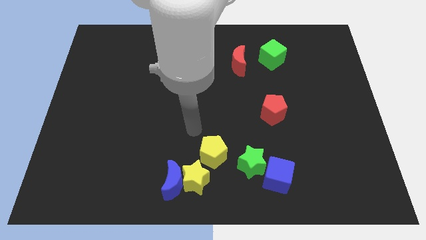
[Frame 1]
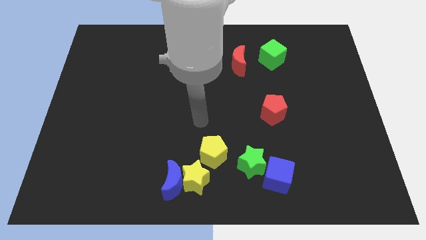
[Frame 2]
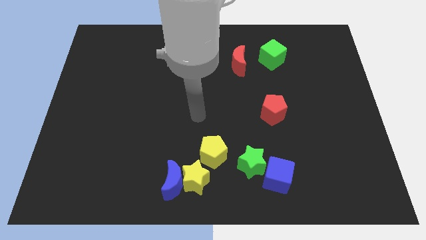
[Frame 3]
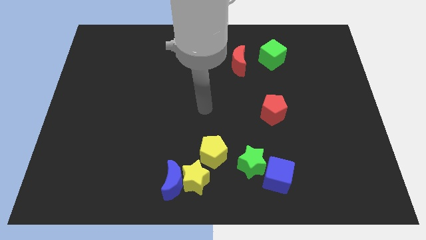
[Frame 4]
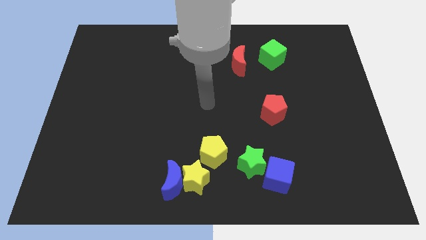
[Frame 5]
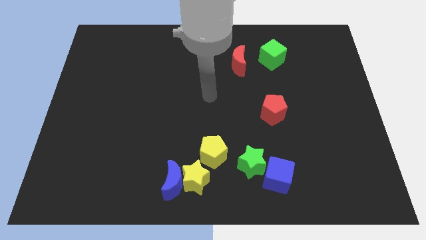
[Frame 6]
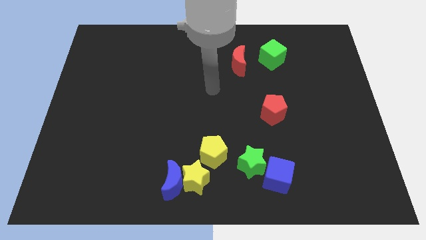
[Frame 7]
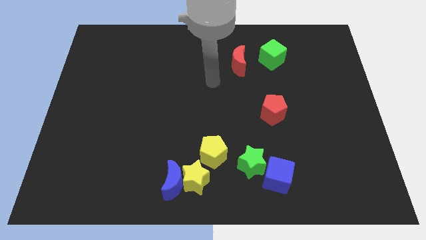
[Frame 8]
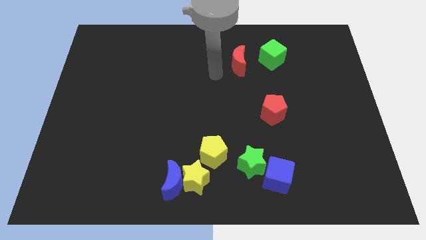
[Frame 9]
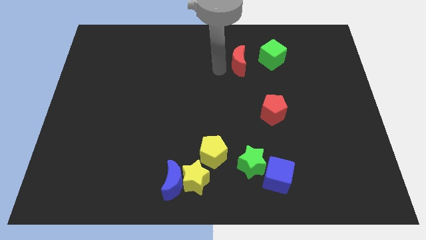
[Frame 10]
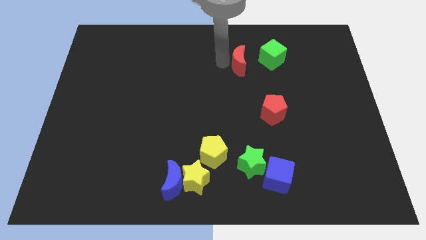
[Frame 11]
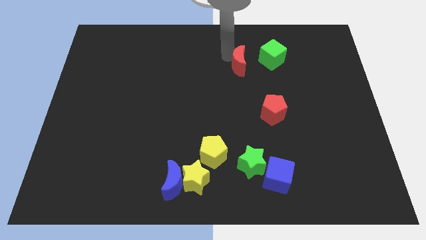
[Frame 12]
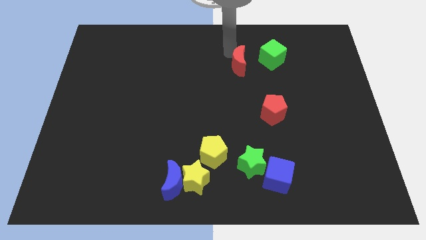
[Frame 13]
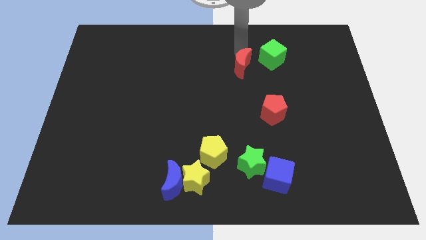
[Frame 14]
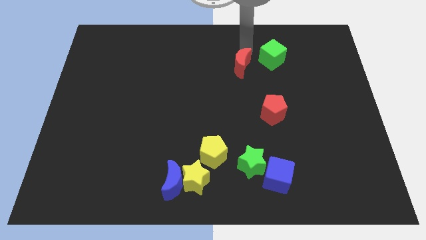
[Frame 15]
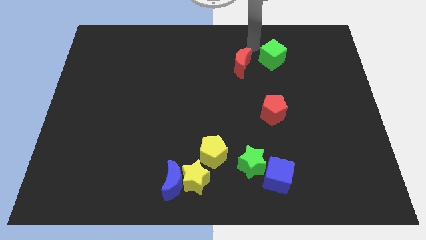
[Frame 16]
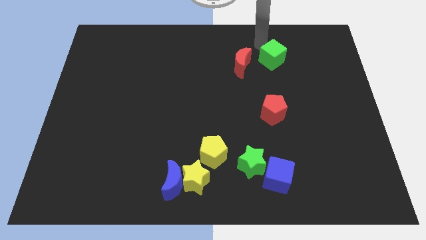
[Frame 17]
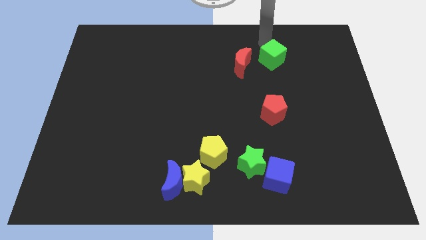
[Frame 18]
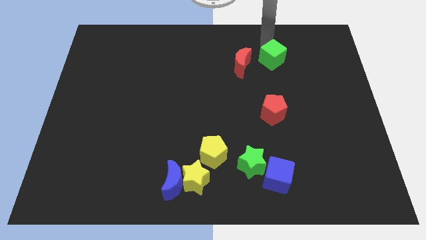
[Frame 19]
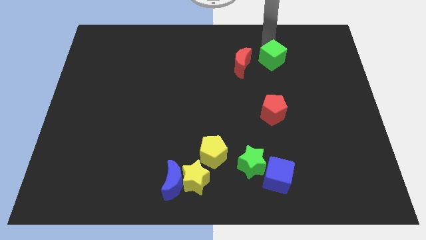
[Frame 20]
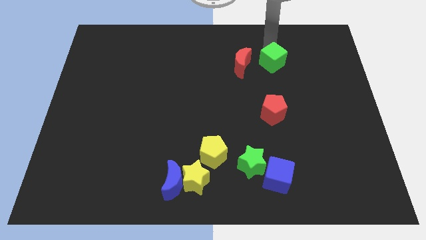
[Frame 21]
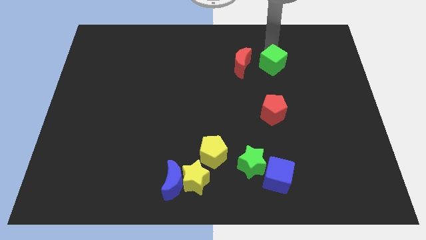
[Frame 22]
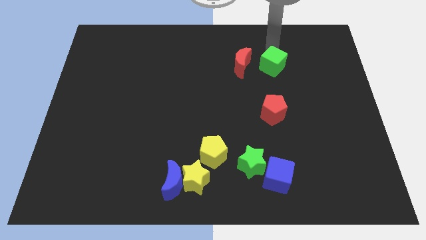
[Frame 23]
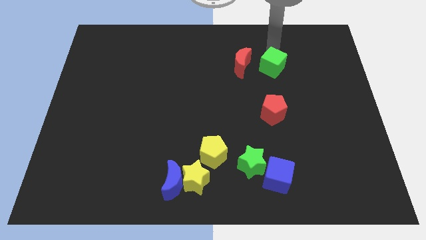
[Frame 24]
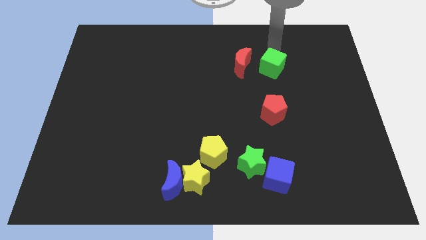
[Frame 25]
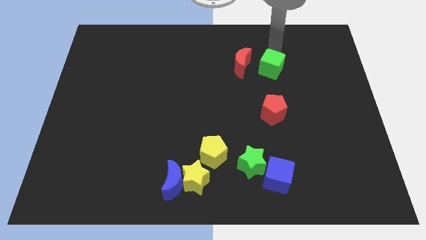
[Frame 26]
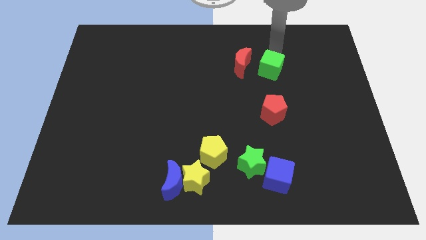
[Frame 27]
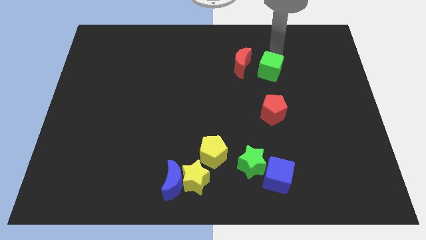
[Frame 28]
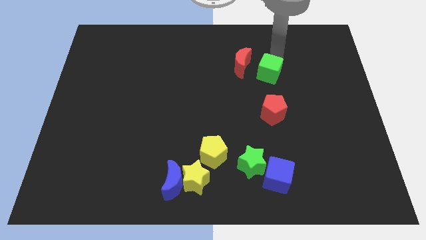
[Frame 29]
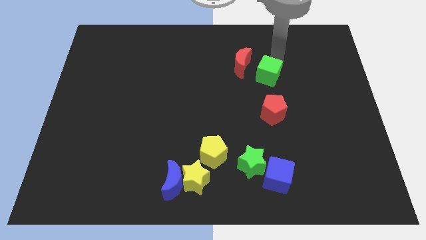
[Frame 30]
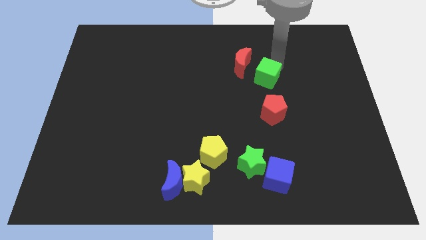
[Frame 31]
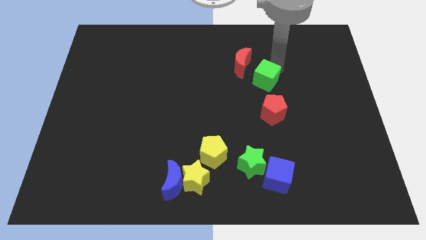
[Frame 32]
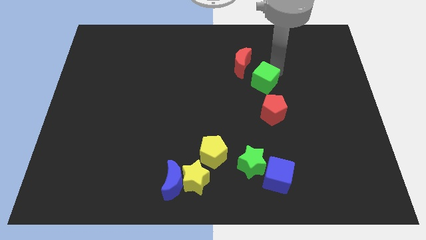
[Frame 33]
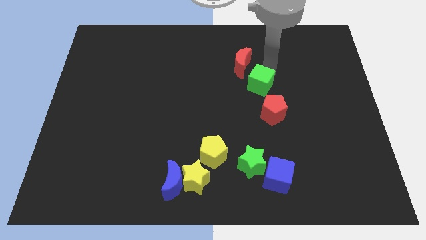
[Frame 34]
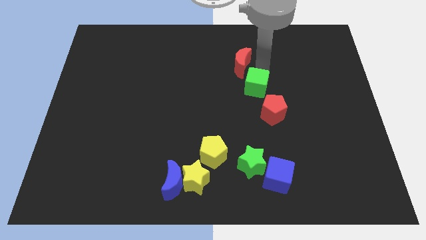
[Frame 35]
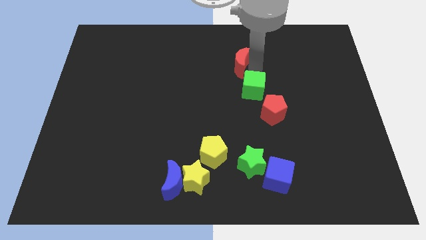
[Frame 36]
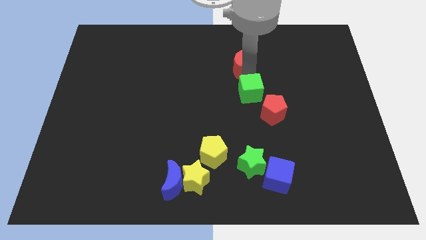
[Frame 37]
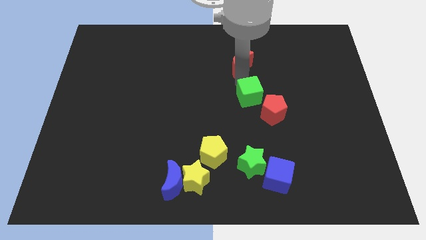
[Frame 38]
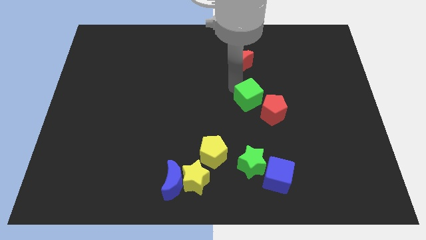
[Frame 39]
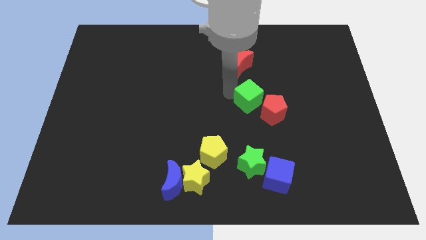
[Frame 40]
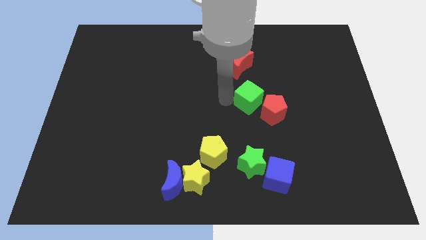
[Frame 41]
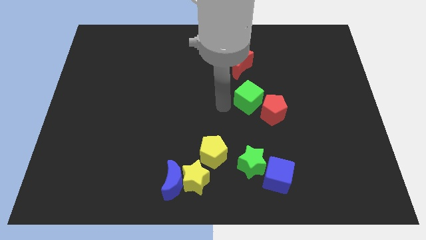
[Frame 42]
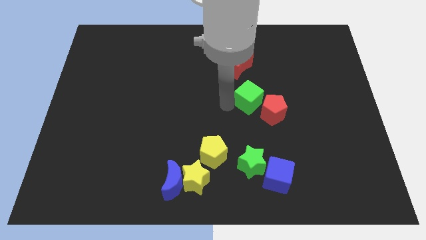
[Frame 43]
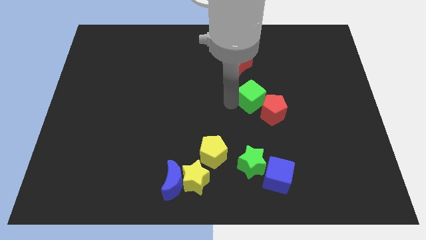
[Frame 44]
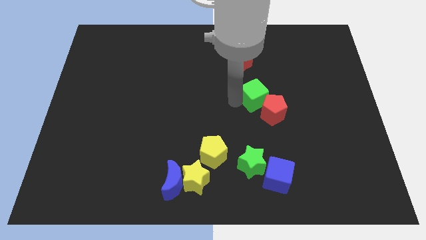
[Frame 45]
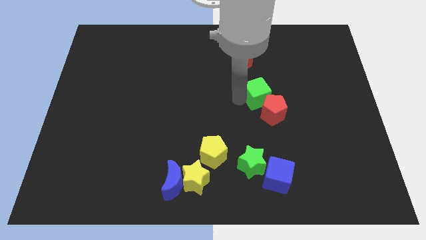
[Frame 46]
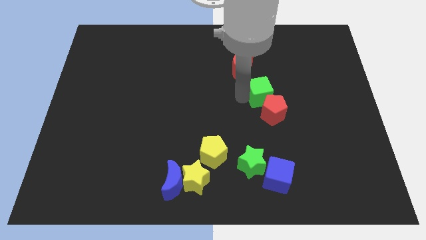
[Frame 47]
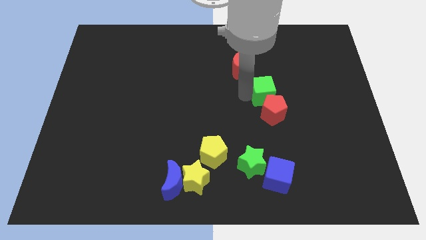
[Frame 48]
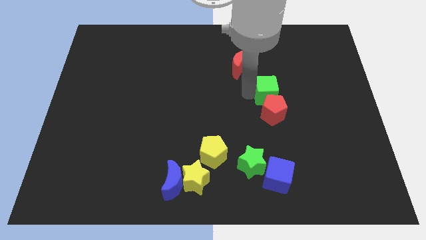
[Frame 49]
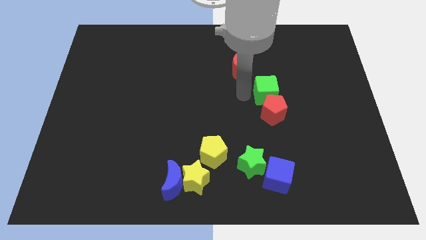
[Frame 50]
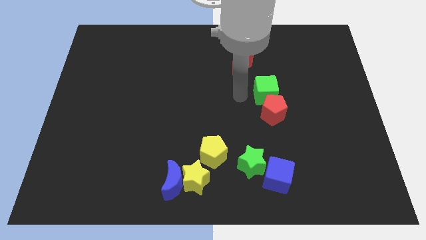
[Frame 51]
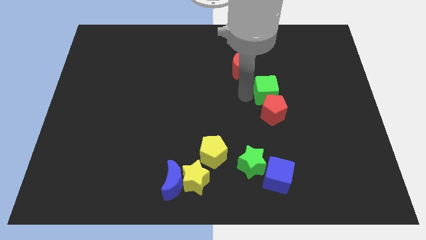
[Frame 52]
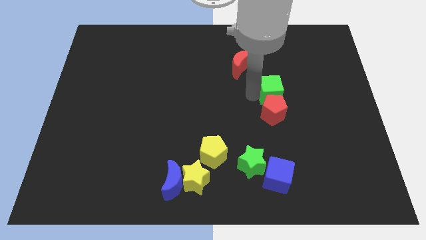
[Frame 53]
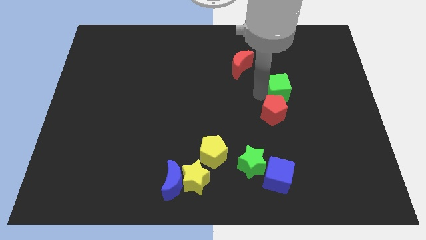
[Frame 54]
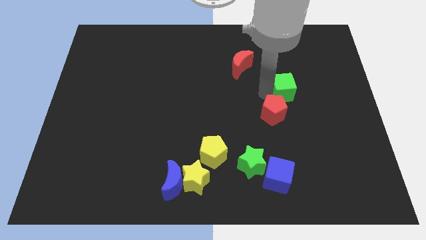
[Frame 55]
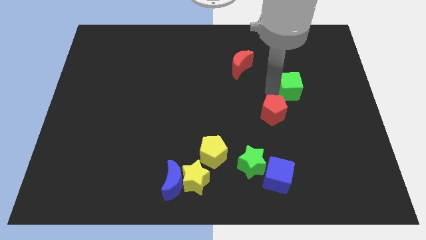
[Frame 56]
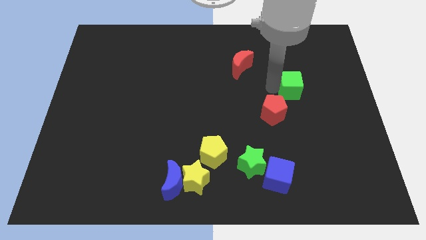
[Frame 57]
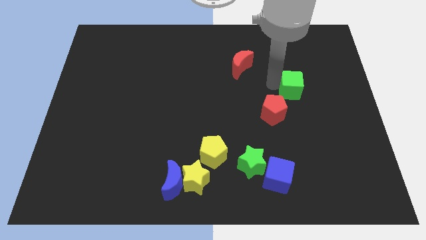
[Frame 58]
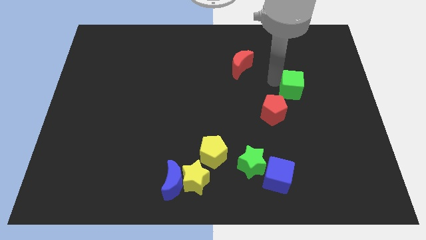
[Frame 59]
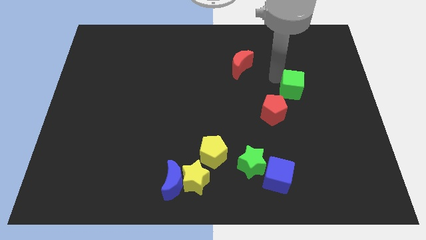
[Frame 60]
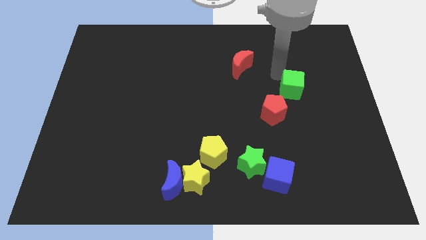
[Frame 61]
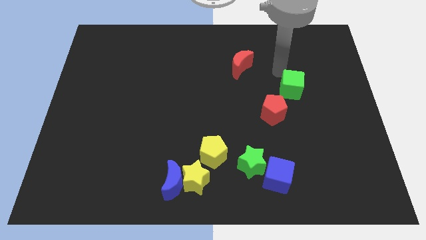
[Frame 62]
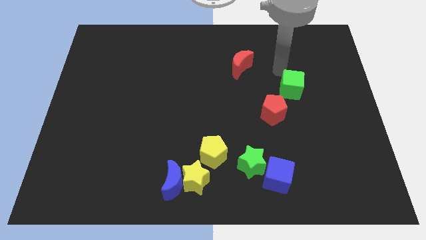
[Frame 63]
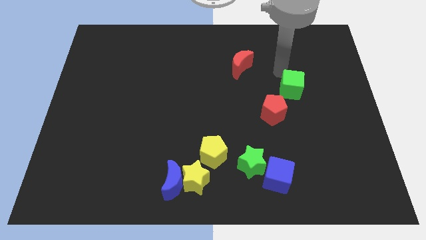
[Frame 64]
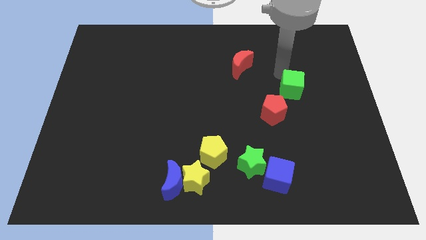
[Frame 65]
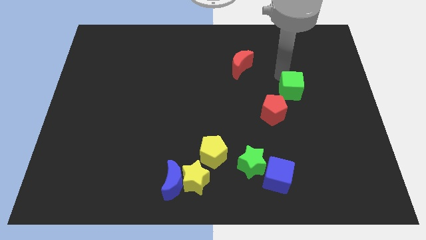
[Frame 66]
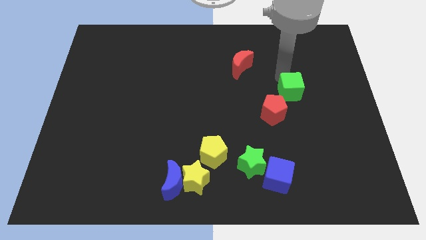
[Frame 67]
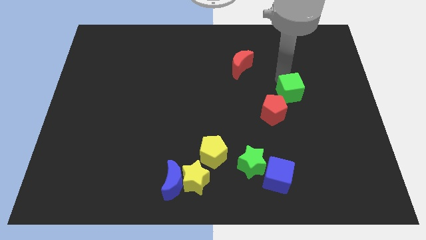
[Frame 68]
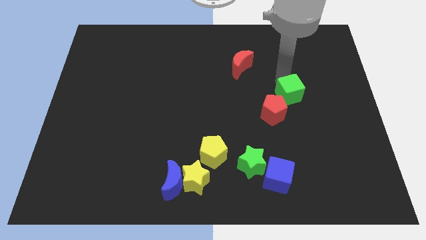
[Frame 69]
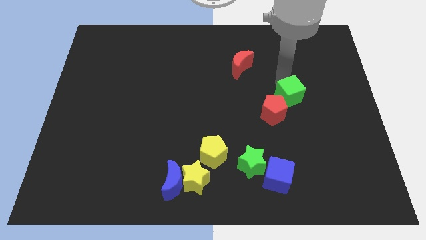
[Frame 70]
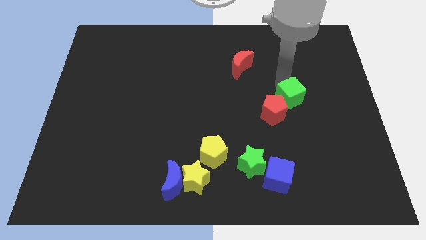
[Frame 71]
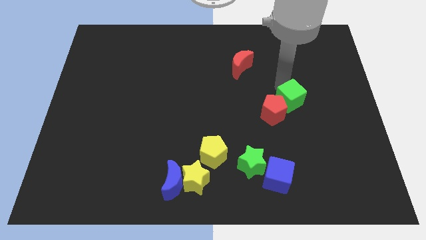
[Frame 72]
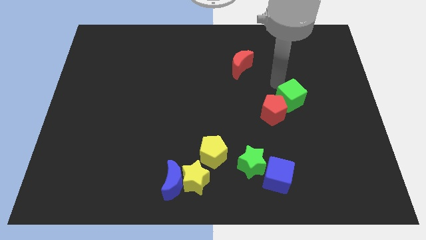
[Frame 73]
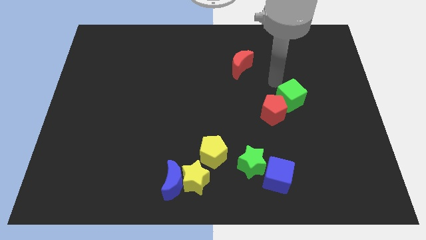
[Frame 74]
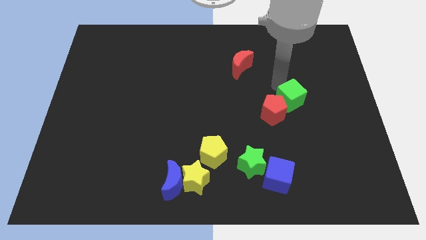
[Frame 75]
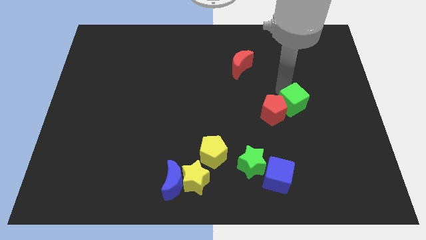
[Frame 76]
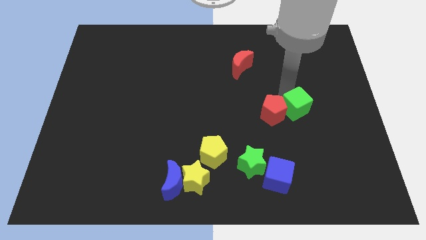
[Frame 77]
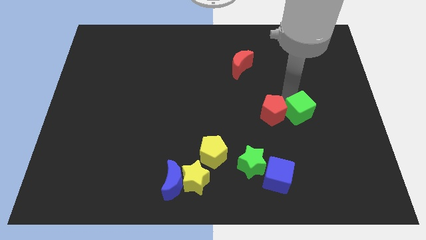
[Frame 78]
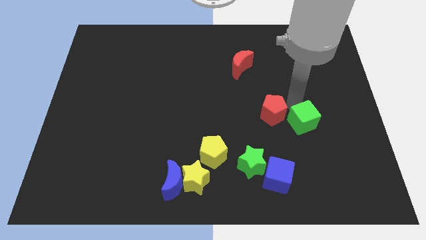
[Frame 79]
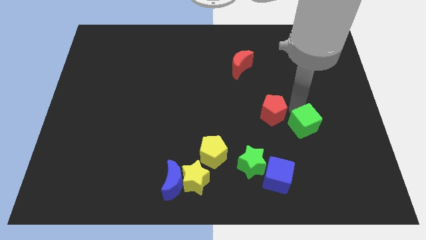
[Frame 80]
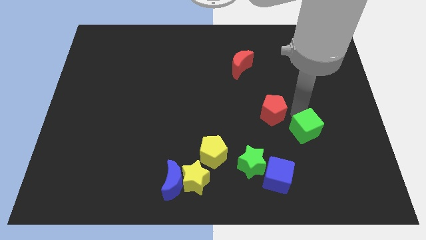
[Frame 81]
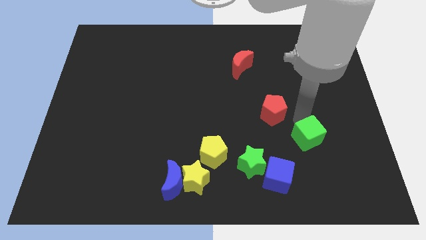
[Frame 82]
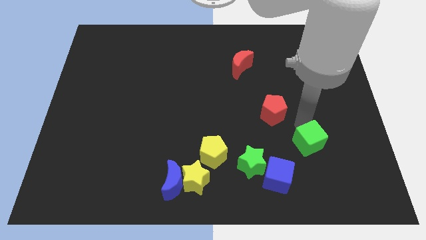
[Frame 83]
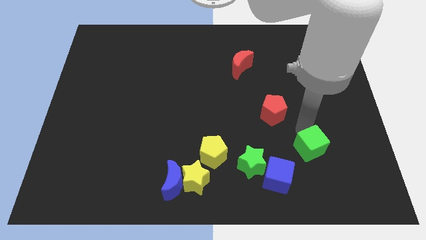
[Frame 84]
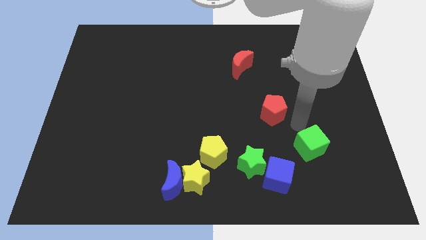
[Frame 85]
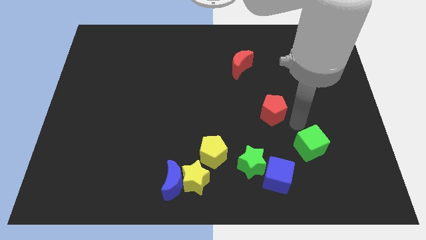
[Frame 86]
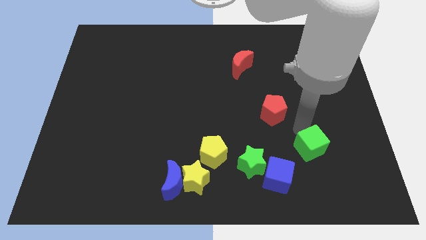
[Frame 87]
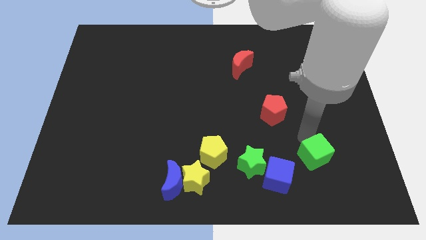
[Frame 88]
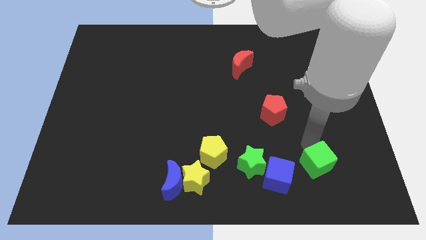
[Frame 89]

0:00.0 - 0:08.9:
move the green cube just right of the blue cube
